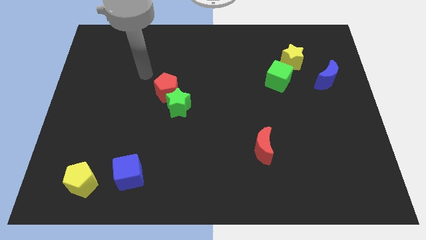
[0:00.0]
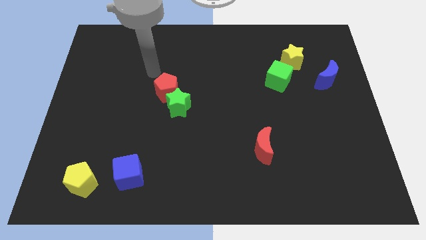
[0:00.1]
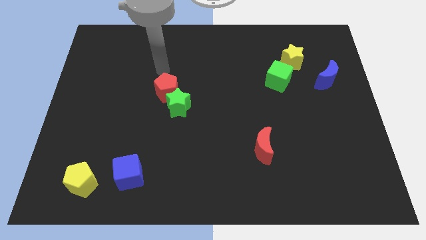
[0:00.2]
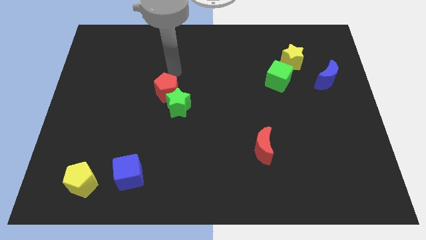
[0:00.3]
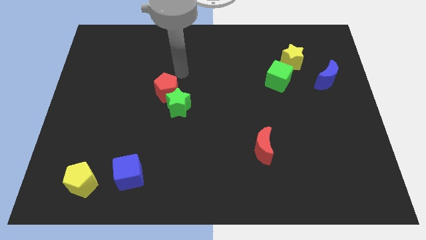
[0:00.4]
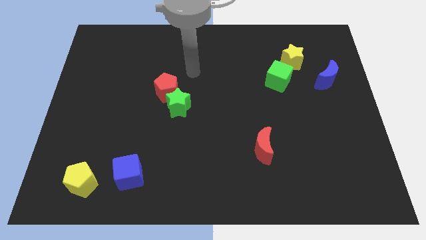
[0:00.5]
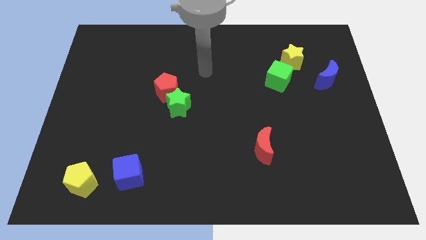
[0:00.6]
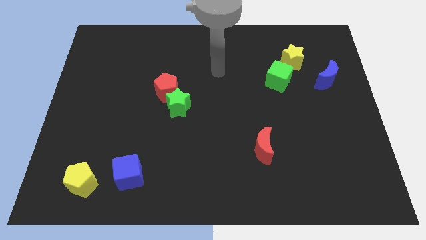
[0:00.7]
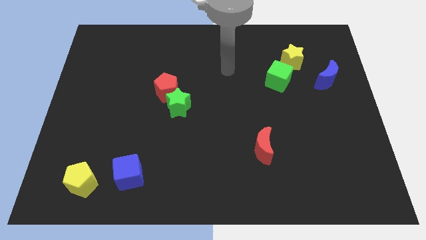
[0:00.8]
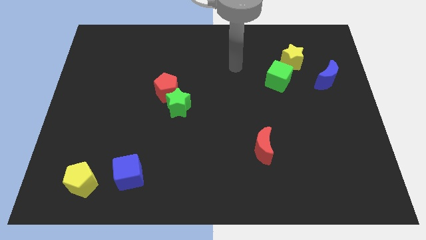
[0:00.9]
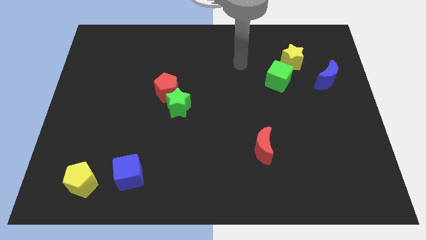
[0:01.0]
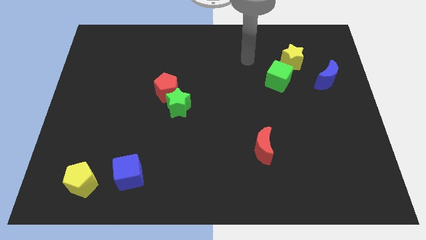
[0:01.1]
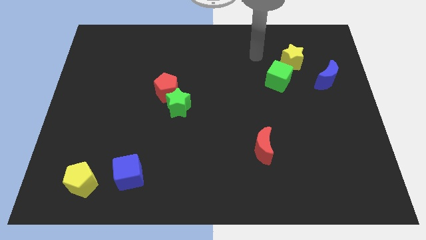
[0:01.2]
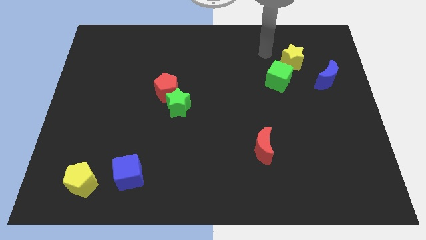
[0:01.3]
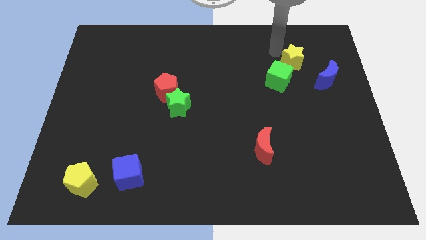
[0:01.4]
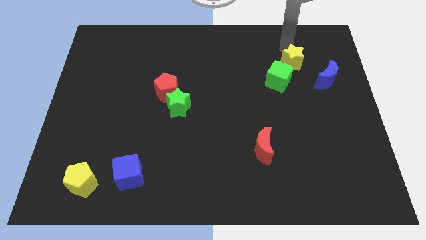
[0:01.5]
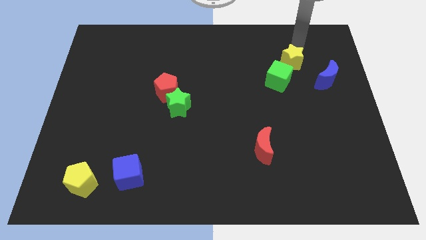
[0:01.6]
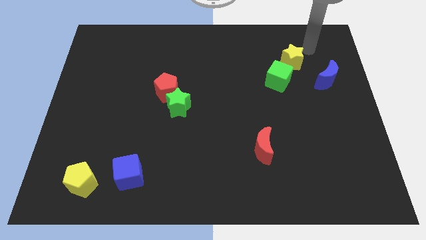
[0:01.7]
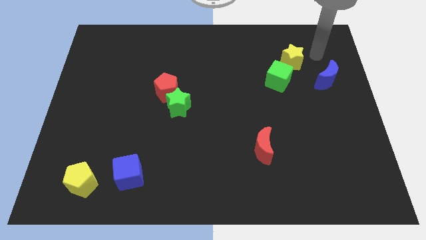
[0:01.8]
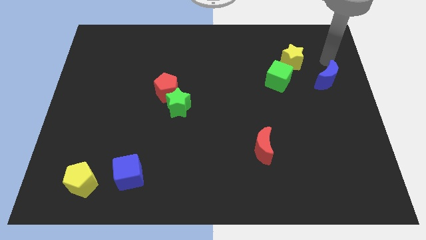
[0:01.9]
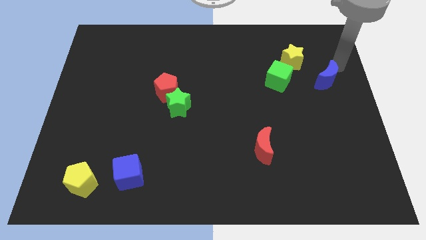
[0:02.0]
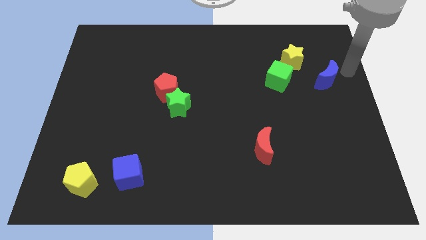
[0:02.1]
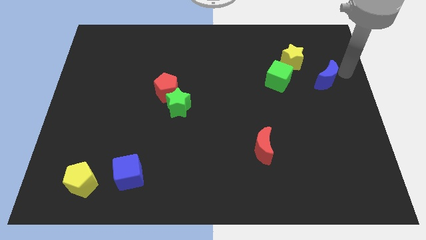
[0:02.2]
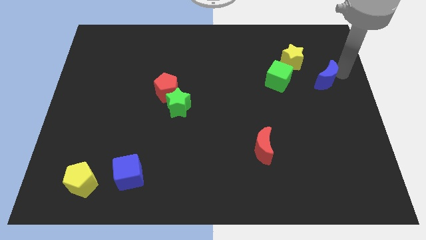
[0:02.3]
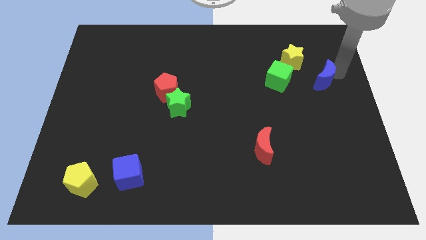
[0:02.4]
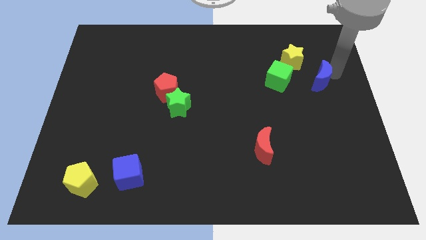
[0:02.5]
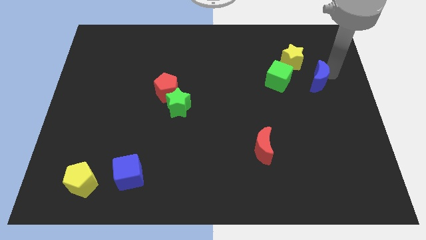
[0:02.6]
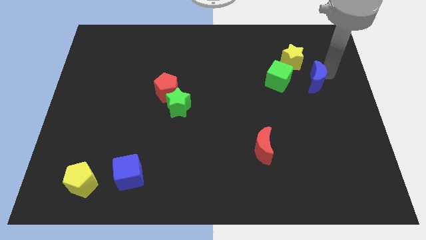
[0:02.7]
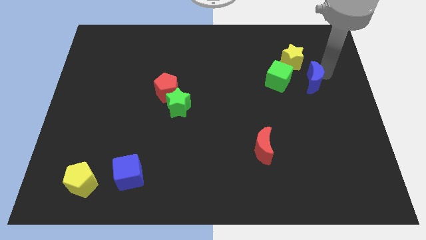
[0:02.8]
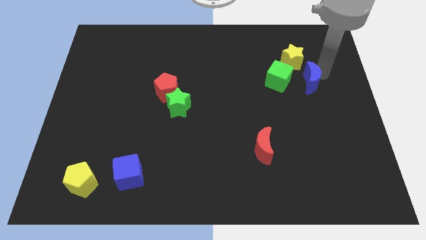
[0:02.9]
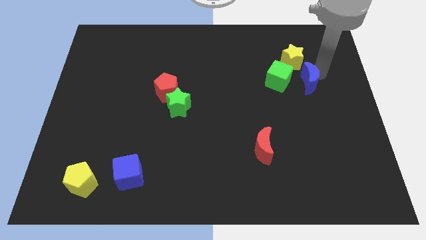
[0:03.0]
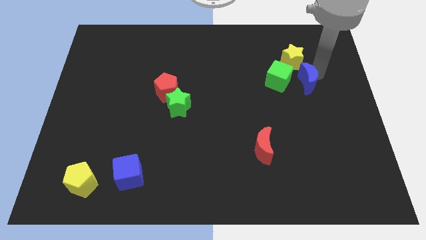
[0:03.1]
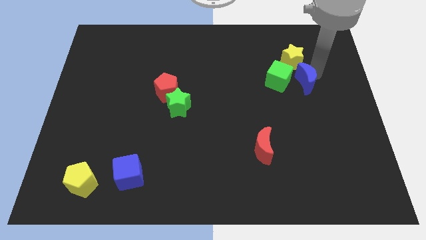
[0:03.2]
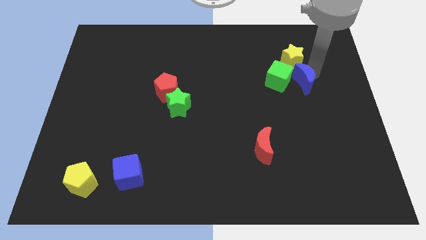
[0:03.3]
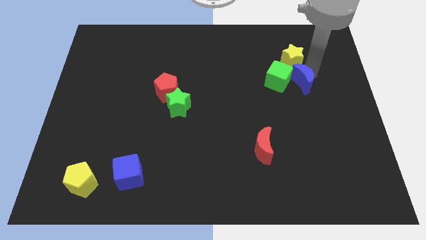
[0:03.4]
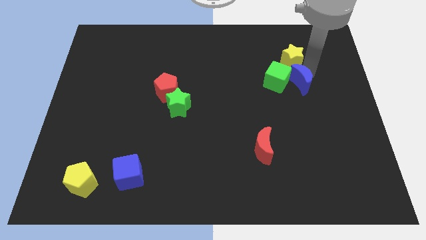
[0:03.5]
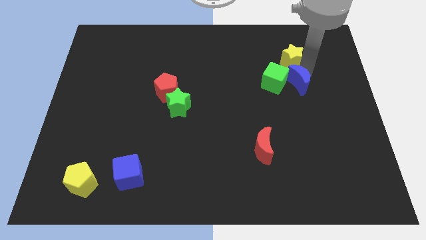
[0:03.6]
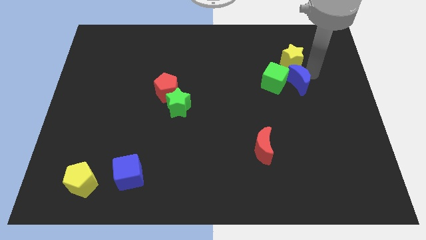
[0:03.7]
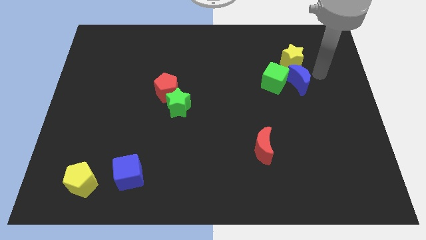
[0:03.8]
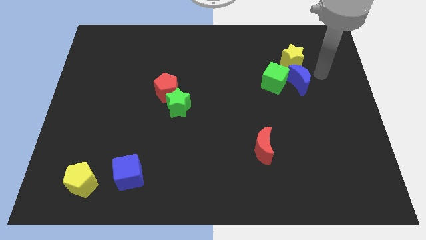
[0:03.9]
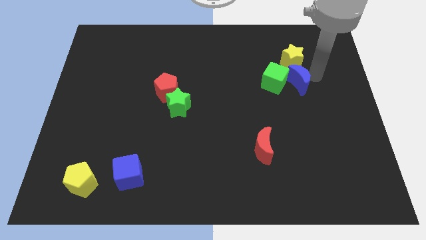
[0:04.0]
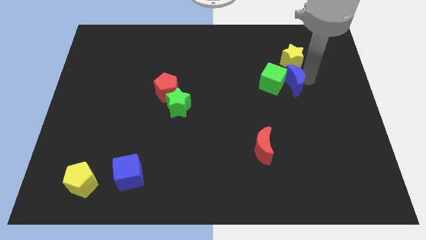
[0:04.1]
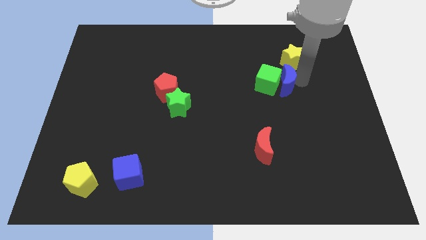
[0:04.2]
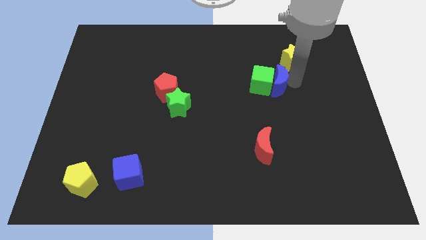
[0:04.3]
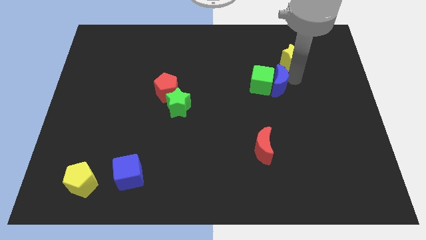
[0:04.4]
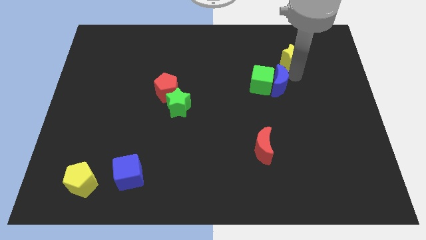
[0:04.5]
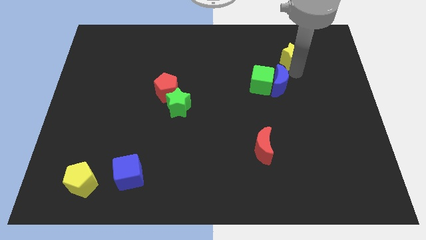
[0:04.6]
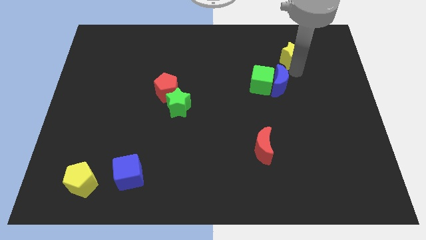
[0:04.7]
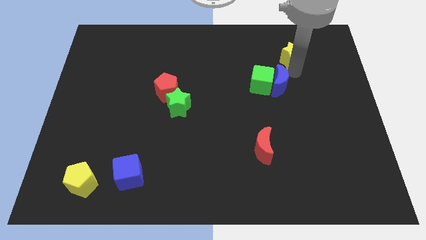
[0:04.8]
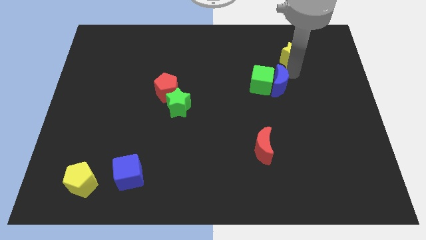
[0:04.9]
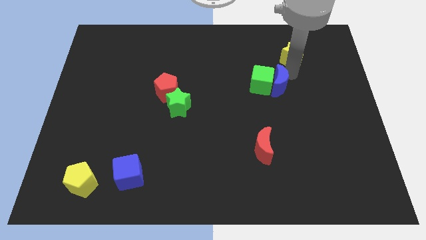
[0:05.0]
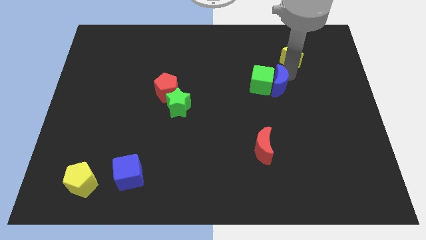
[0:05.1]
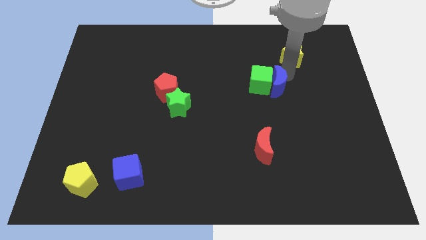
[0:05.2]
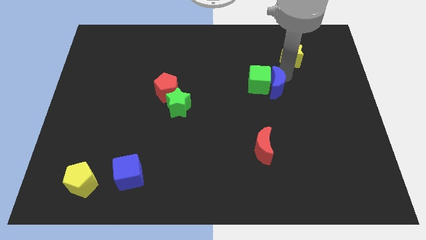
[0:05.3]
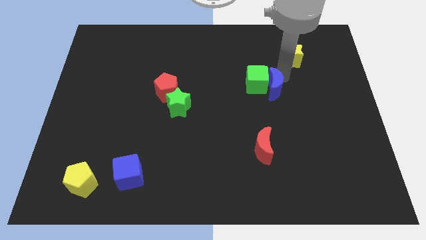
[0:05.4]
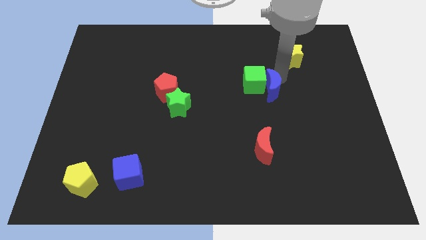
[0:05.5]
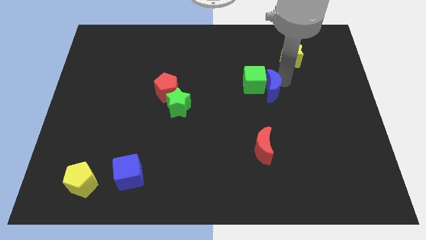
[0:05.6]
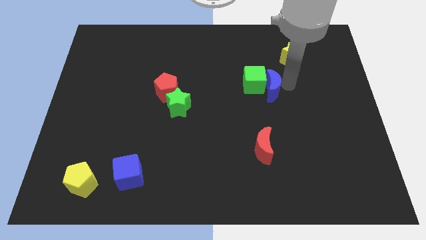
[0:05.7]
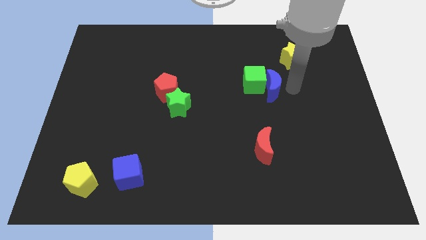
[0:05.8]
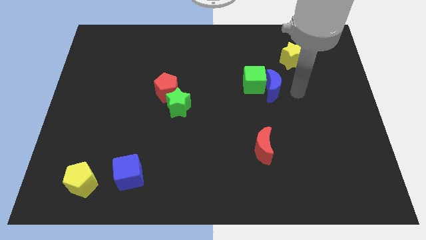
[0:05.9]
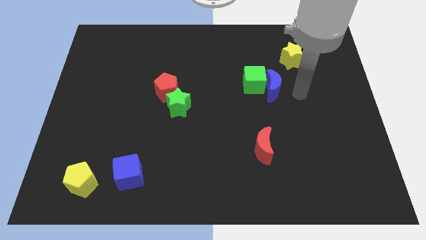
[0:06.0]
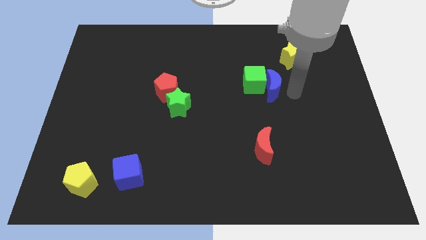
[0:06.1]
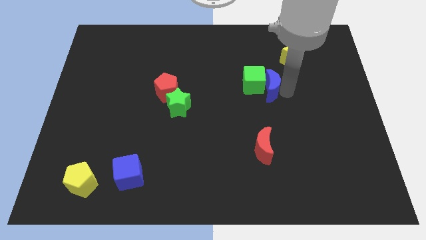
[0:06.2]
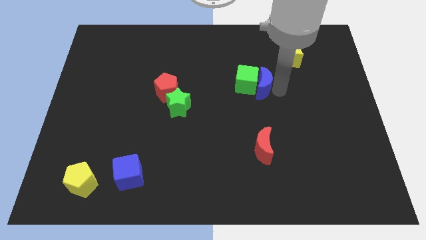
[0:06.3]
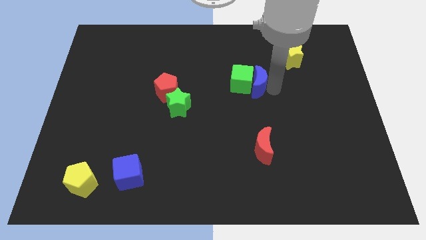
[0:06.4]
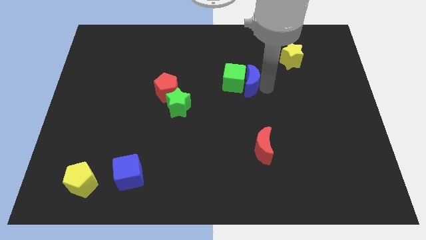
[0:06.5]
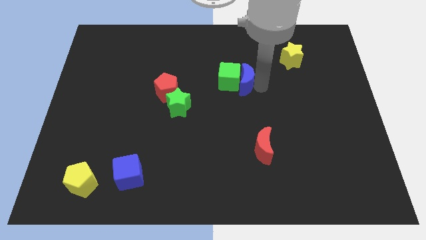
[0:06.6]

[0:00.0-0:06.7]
push the blue moon to the left

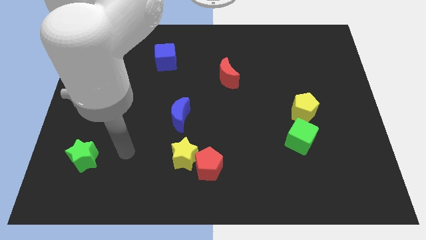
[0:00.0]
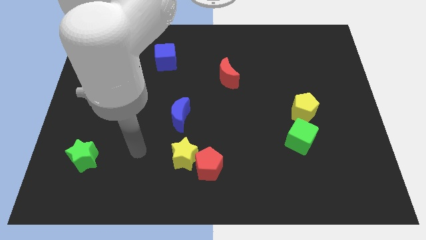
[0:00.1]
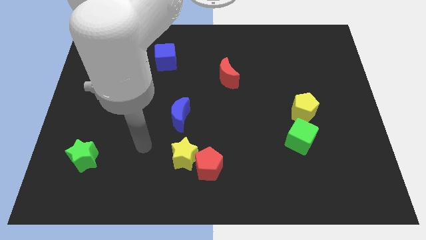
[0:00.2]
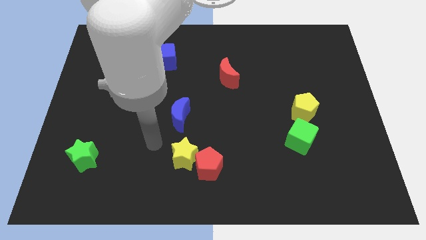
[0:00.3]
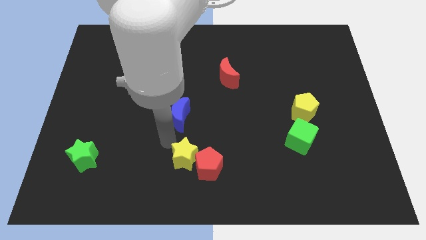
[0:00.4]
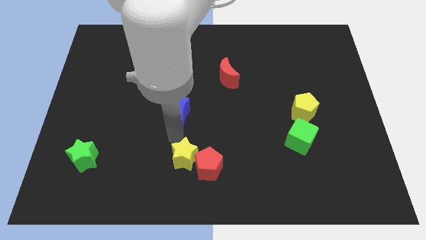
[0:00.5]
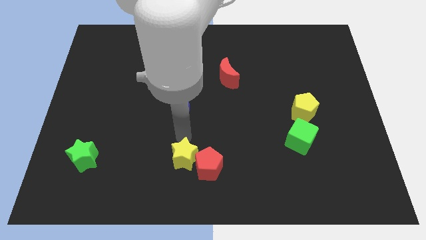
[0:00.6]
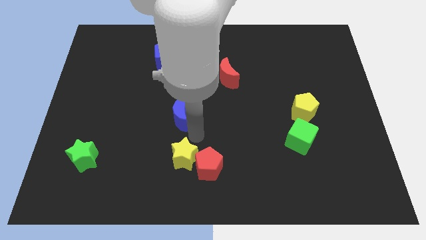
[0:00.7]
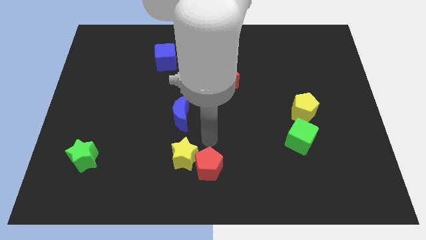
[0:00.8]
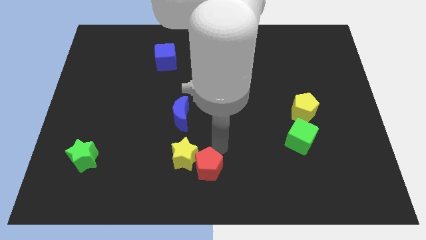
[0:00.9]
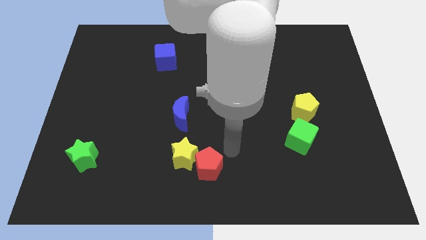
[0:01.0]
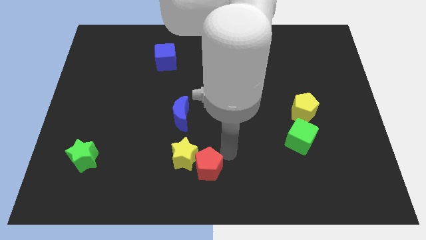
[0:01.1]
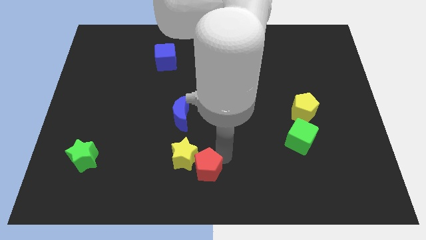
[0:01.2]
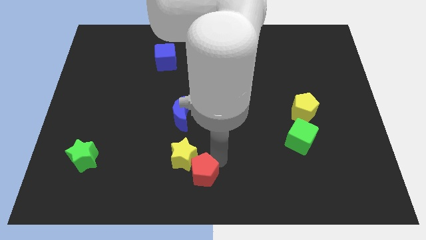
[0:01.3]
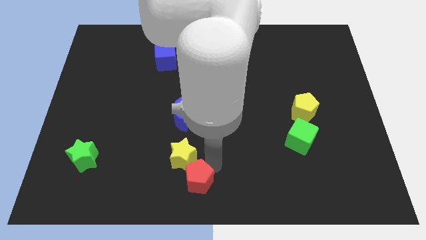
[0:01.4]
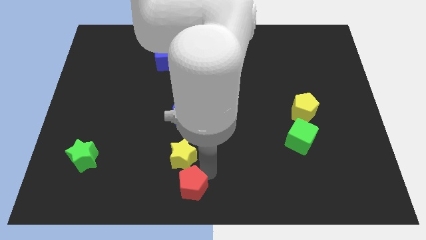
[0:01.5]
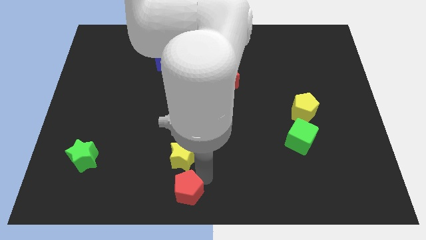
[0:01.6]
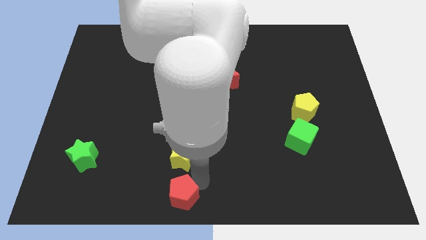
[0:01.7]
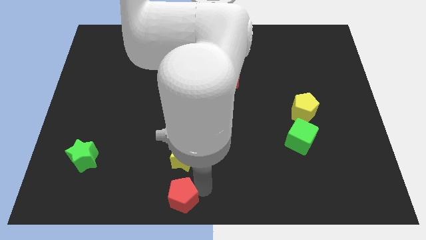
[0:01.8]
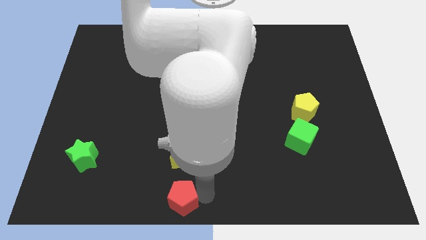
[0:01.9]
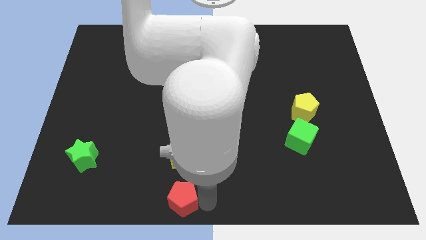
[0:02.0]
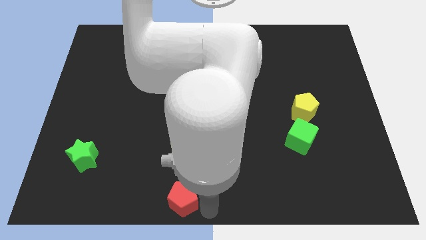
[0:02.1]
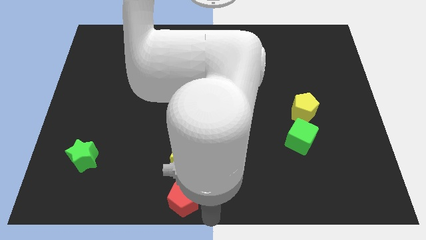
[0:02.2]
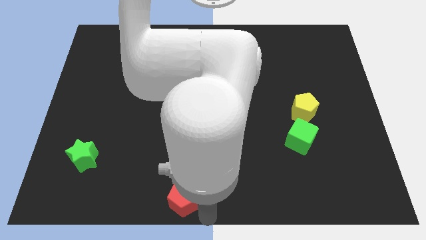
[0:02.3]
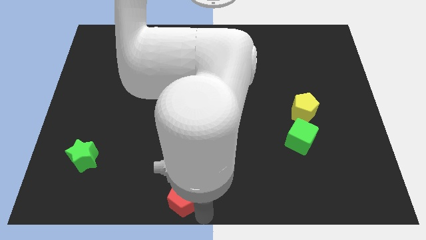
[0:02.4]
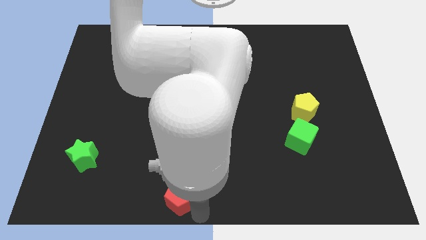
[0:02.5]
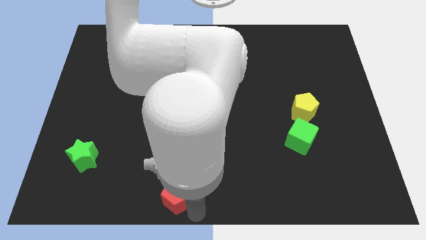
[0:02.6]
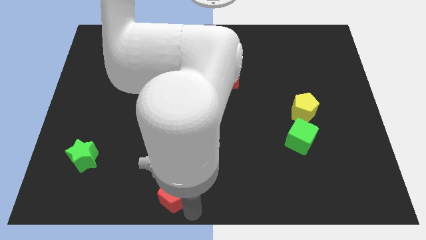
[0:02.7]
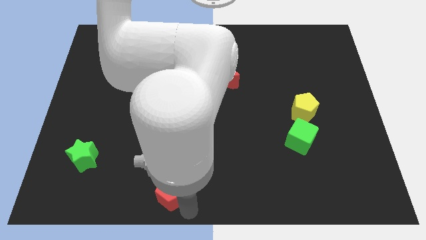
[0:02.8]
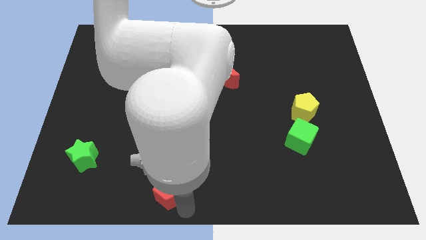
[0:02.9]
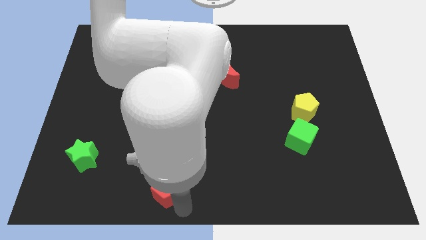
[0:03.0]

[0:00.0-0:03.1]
move the red pentagon a little to the left
